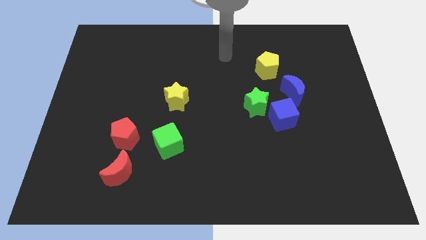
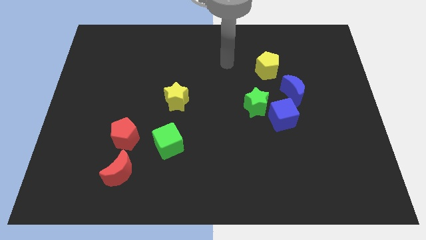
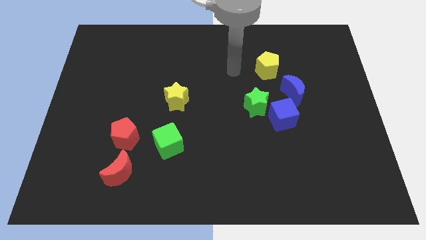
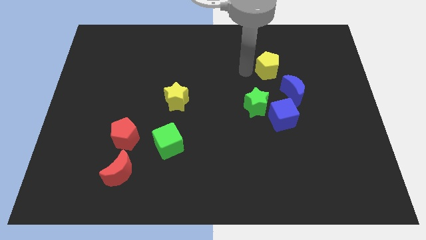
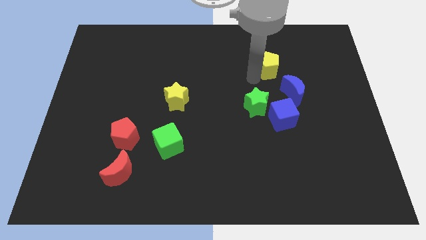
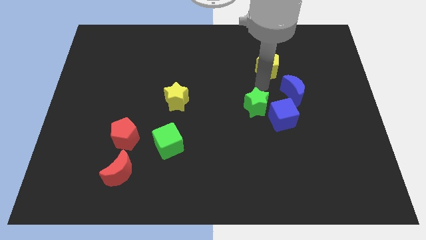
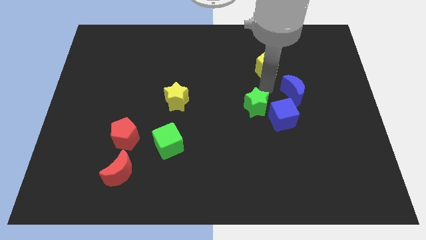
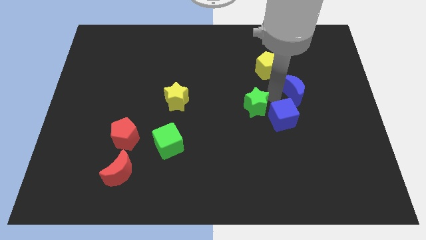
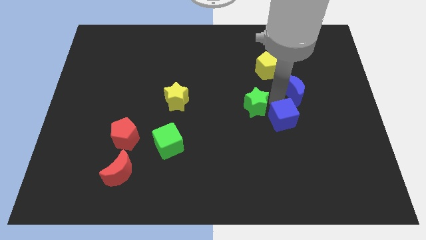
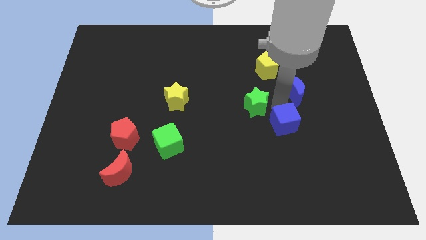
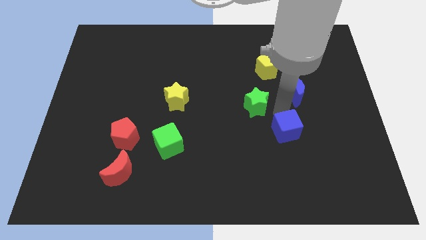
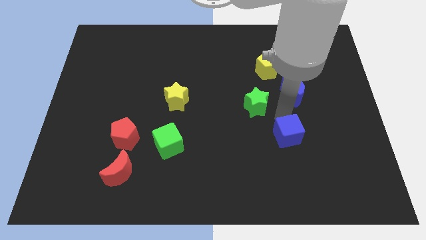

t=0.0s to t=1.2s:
move the blue cube away from the green star and blue moon

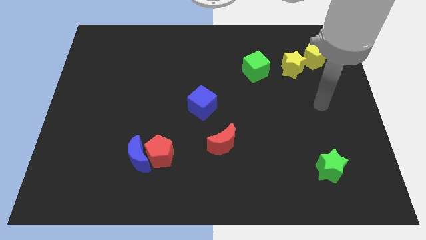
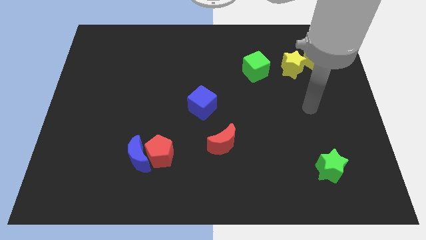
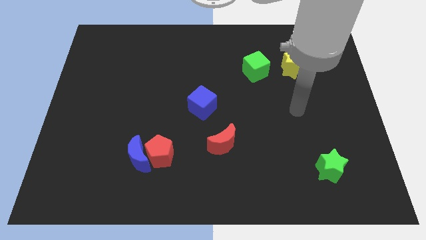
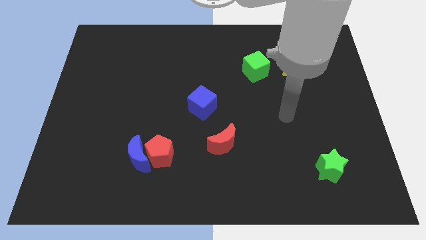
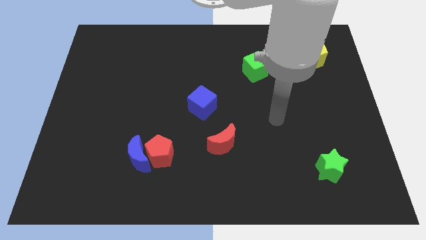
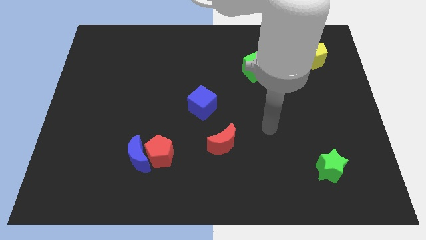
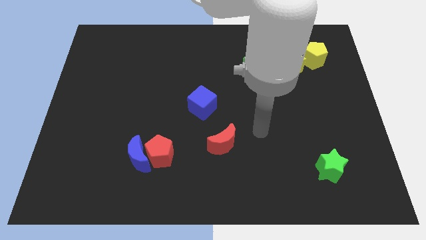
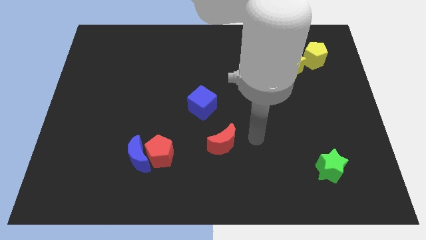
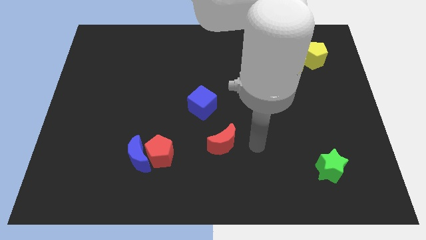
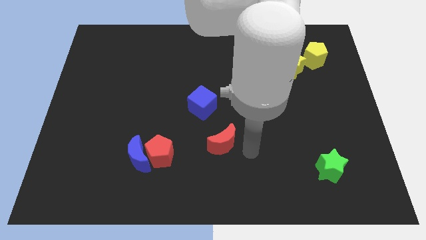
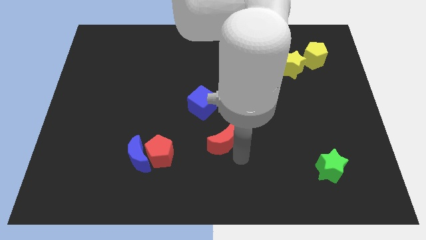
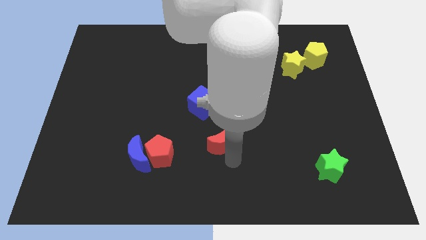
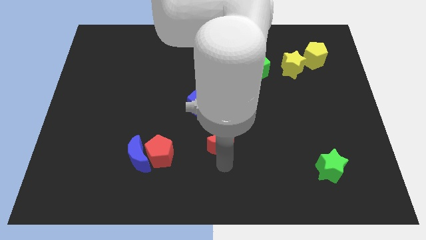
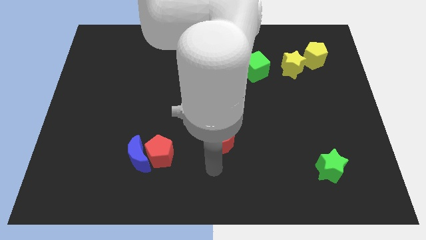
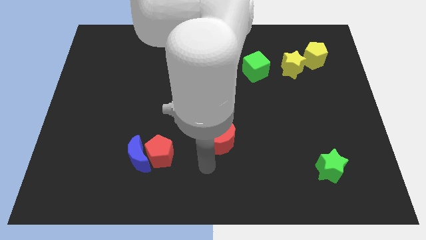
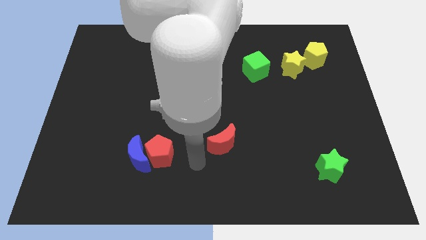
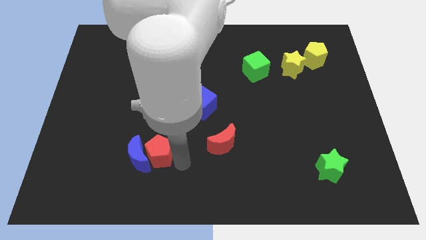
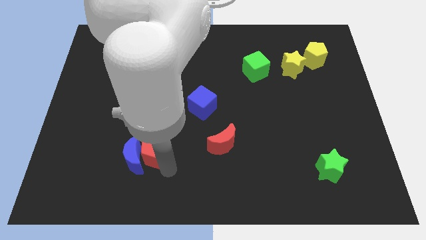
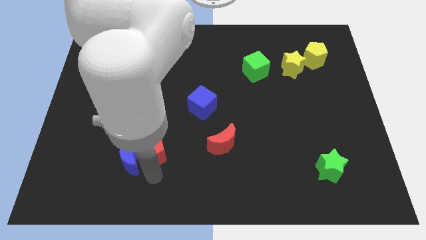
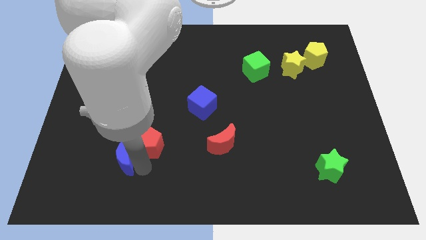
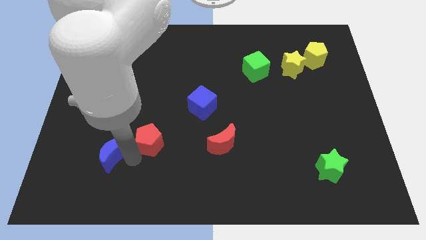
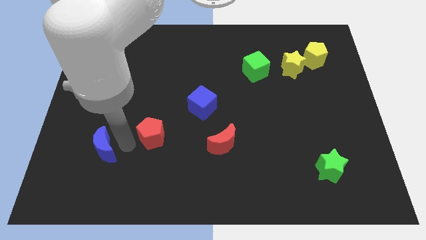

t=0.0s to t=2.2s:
pull the red pentagon apart from the blue moon

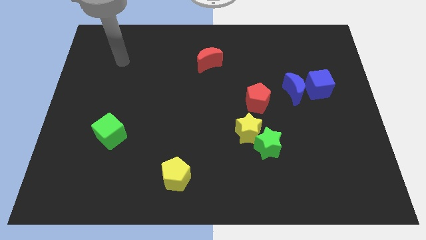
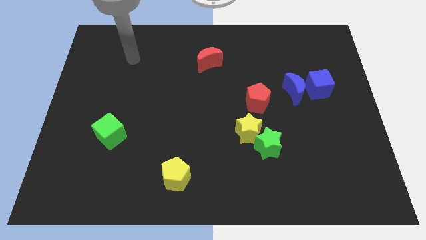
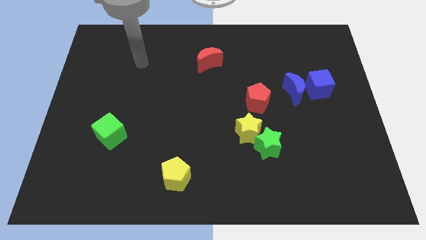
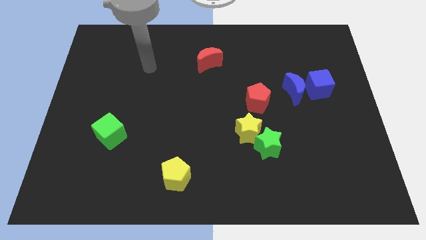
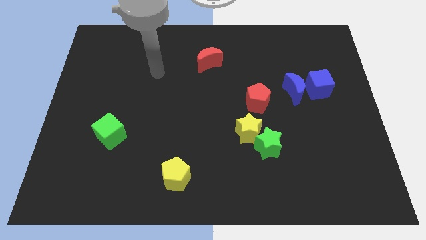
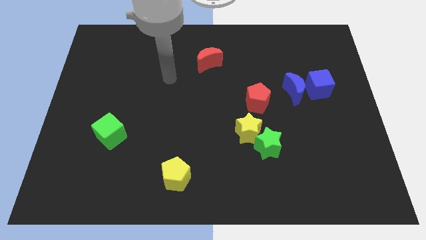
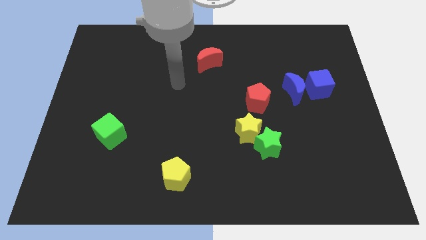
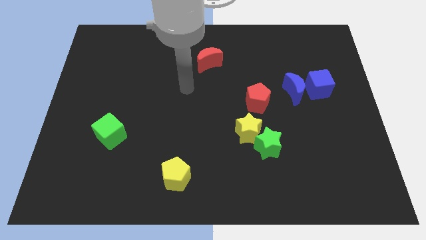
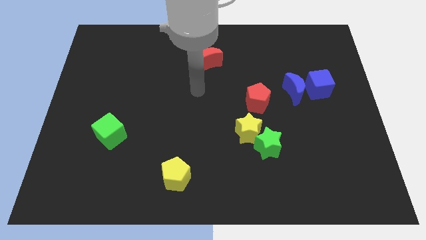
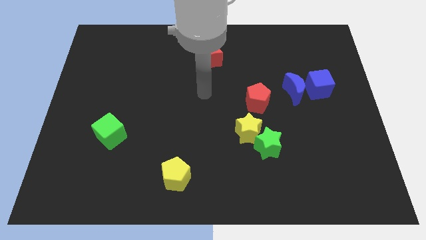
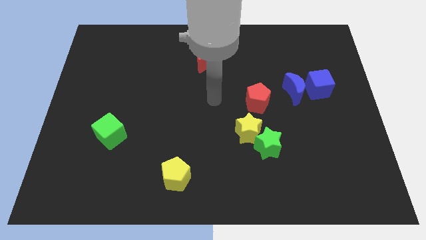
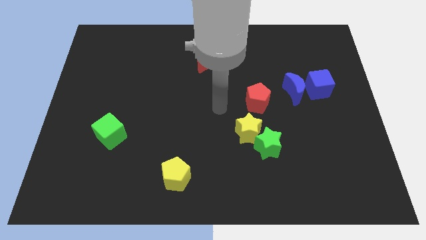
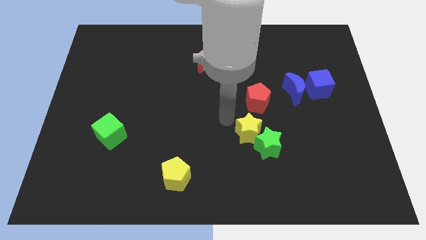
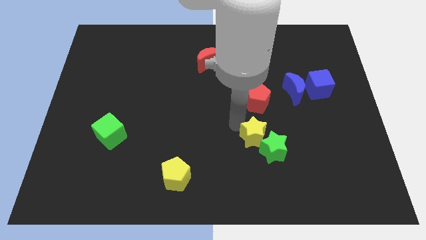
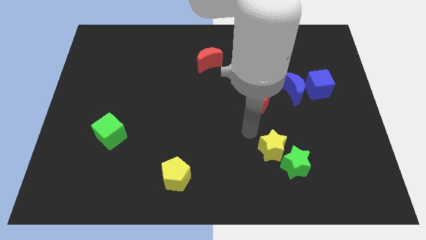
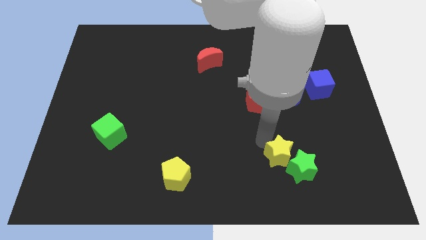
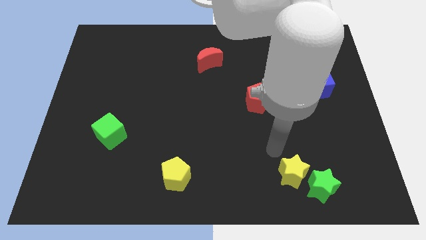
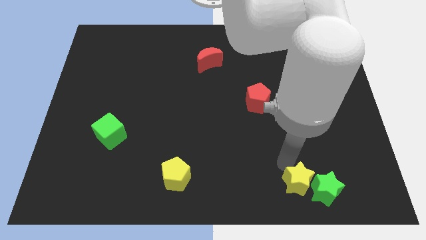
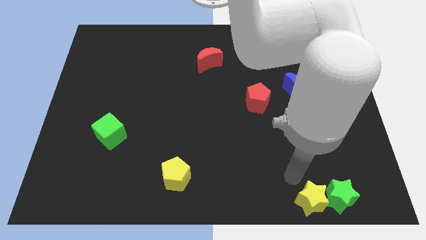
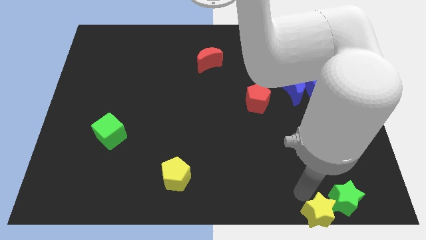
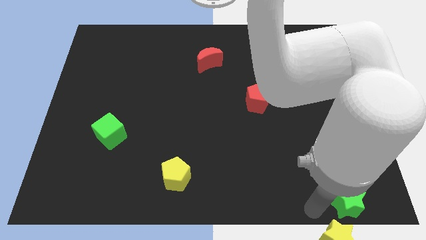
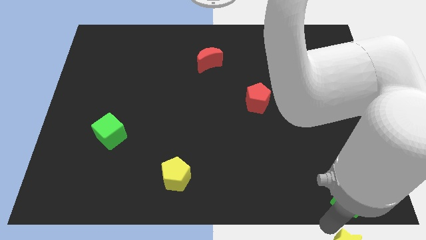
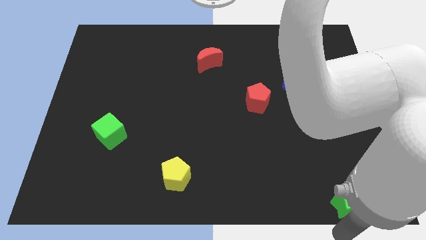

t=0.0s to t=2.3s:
pull the green star apart from the yellow star

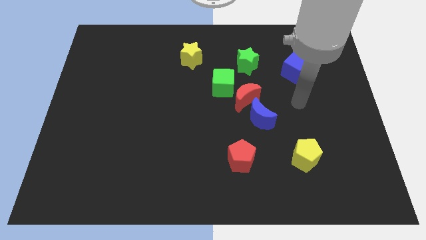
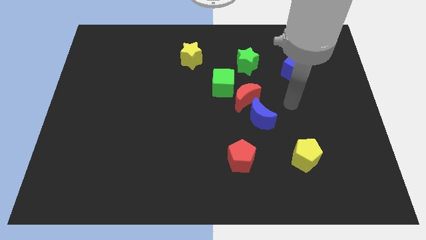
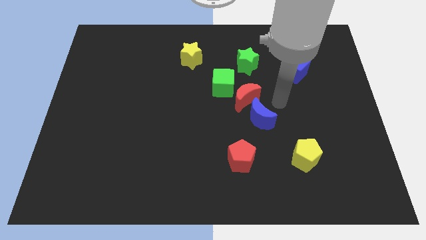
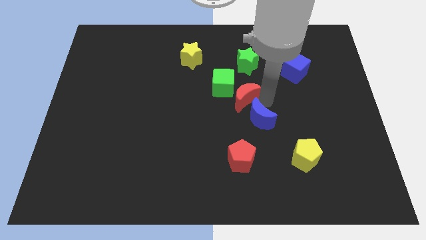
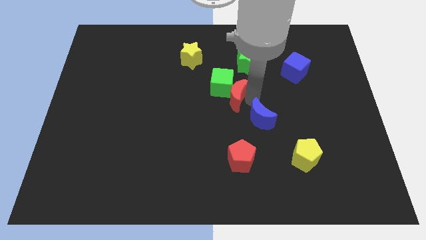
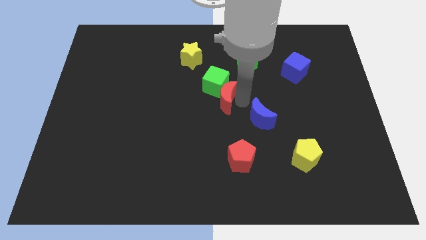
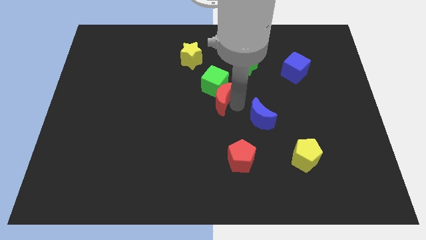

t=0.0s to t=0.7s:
move the blue moon away from the red moon

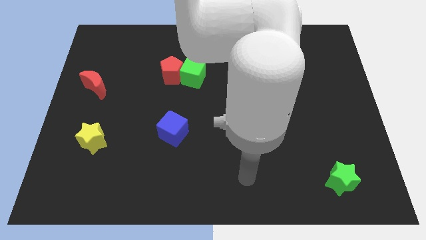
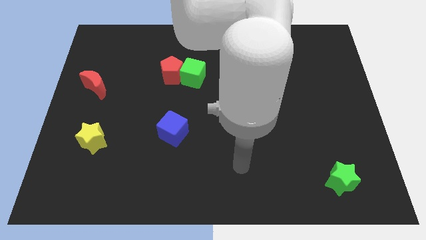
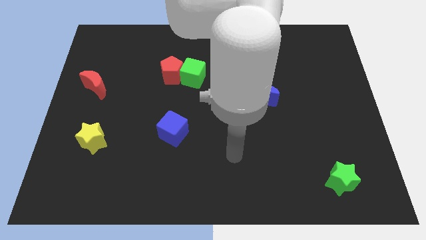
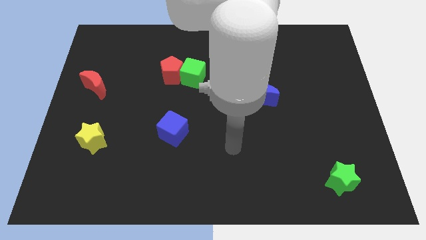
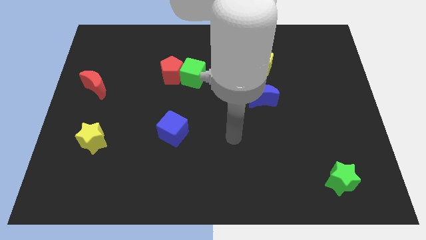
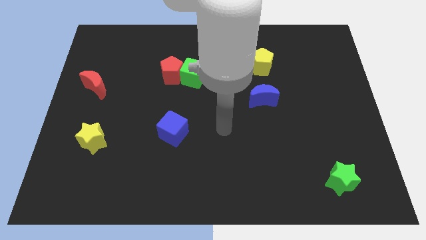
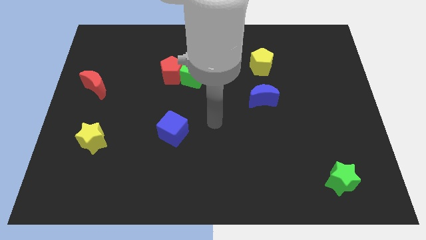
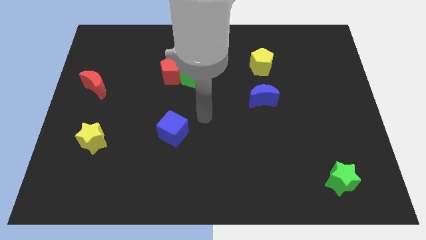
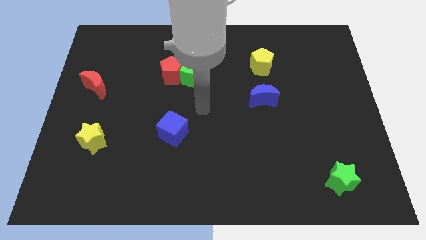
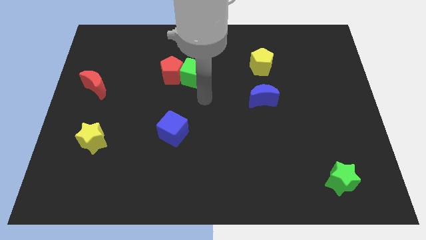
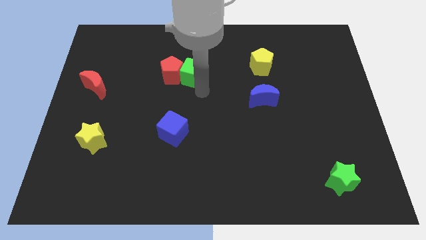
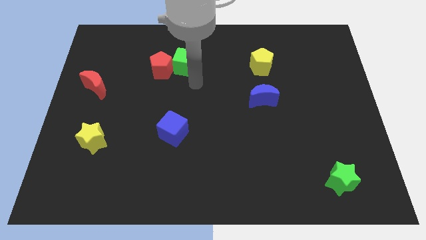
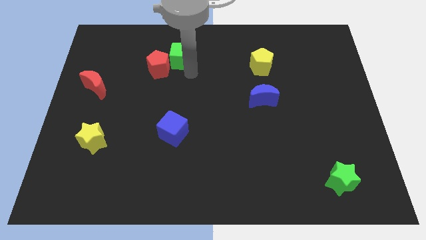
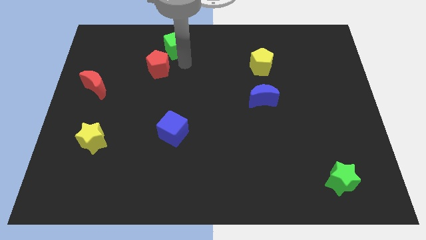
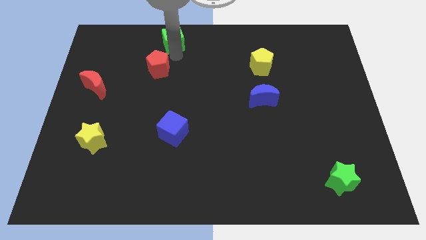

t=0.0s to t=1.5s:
separate the red pentagon from the green cube

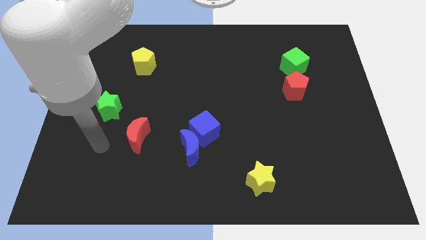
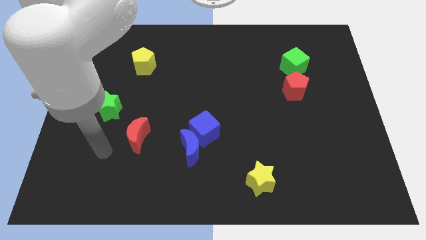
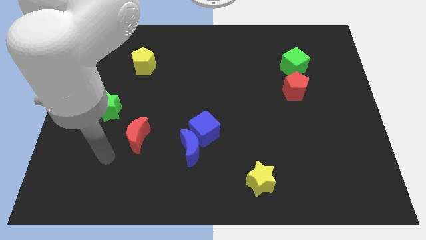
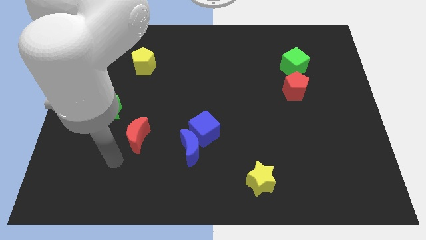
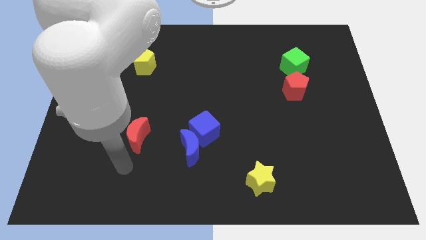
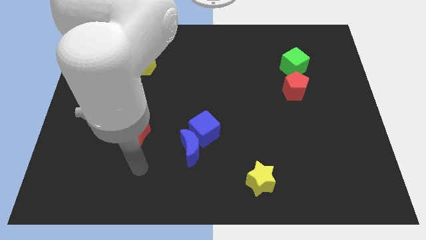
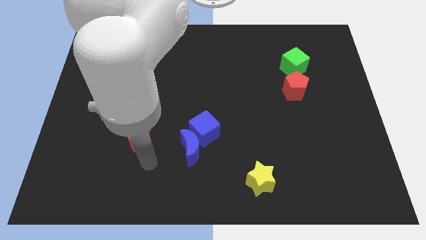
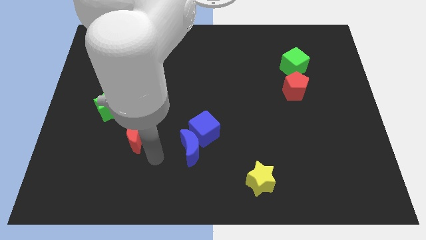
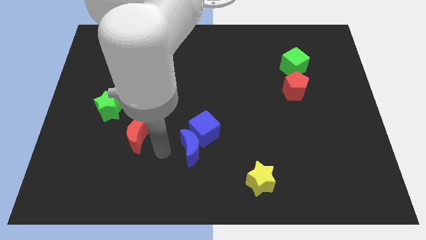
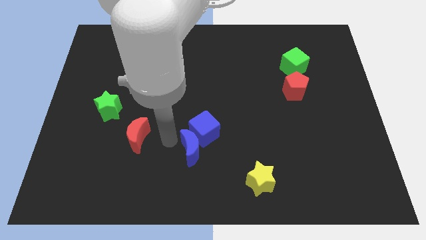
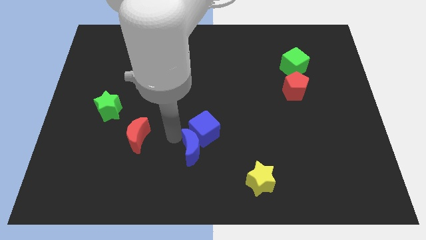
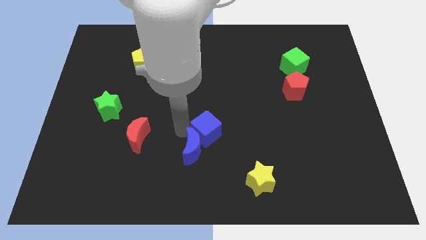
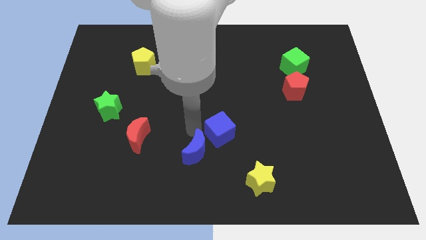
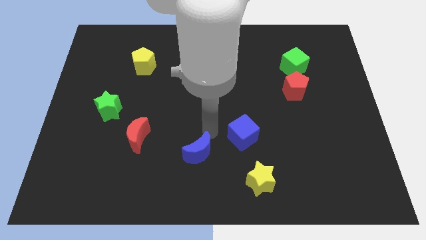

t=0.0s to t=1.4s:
pull the blue moon apart from the blue cube
